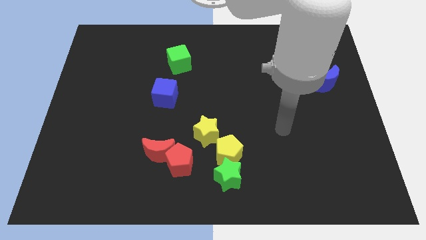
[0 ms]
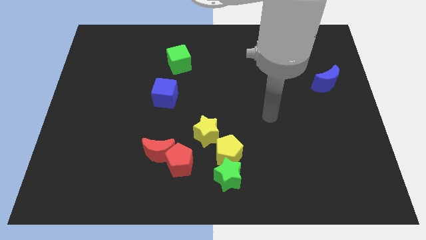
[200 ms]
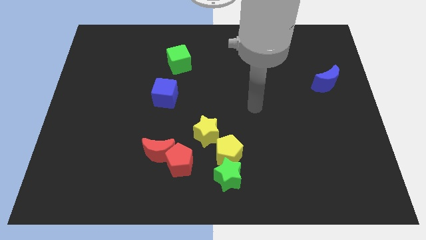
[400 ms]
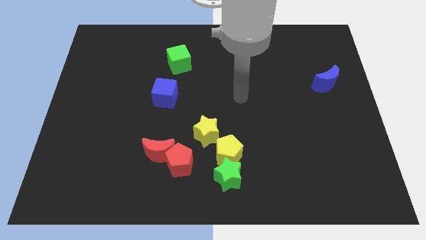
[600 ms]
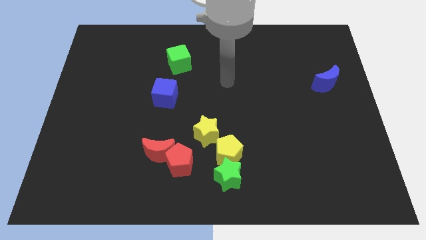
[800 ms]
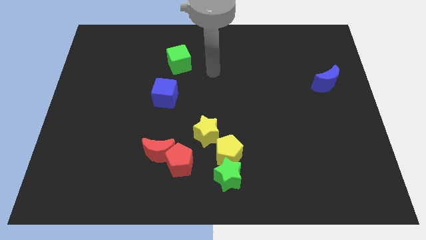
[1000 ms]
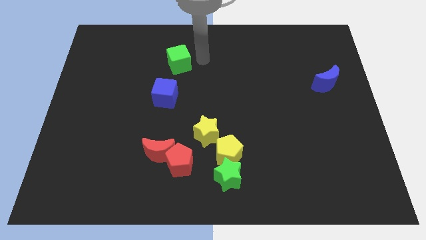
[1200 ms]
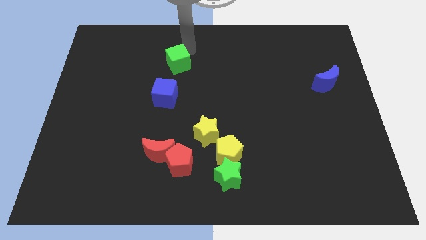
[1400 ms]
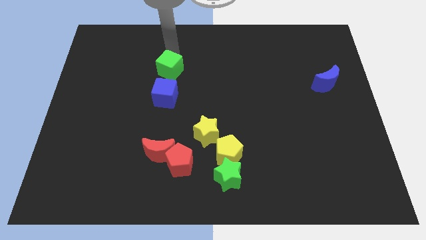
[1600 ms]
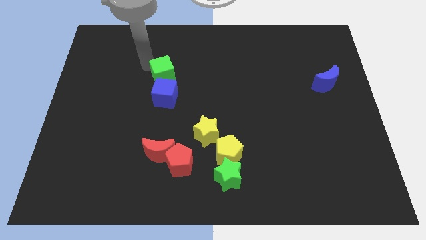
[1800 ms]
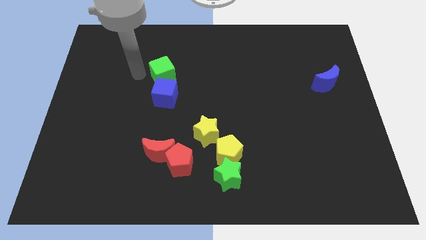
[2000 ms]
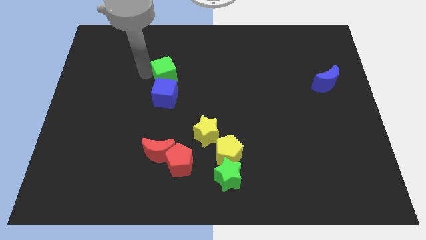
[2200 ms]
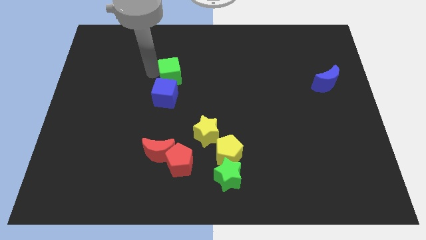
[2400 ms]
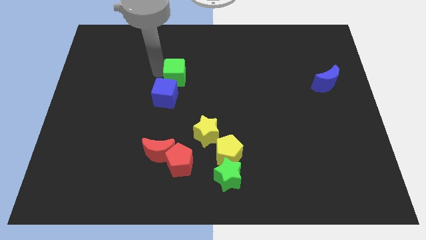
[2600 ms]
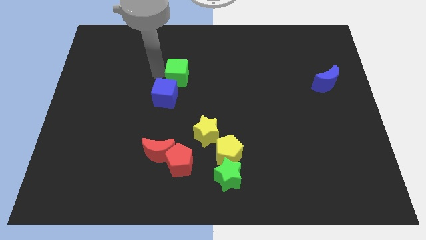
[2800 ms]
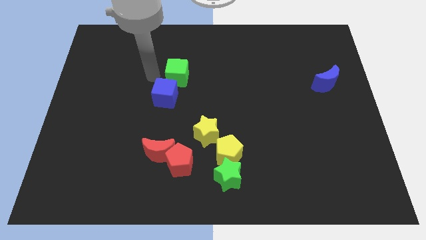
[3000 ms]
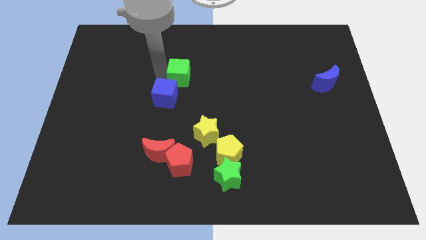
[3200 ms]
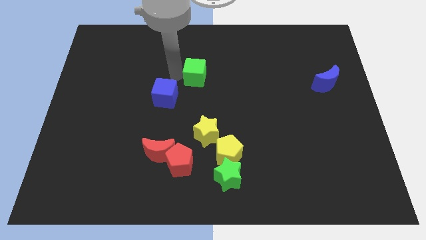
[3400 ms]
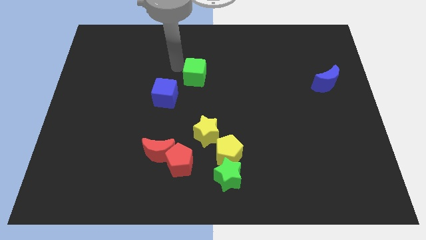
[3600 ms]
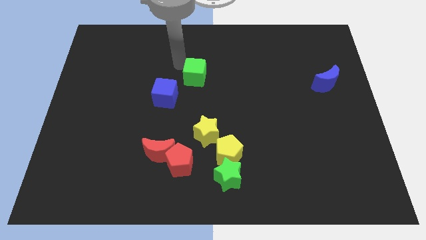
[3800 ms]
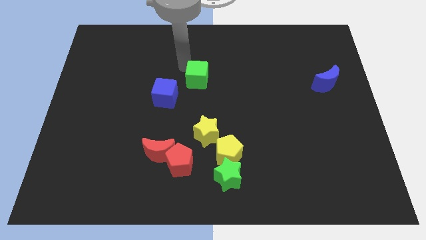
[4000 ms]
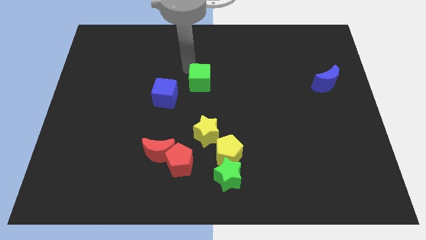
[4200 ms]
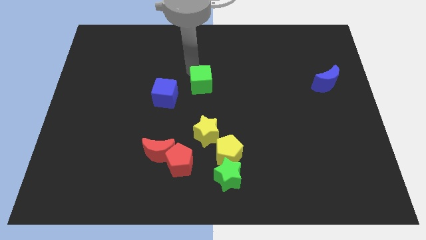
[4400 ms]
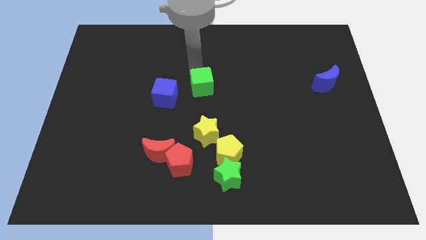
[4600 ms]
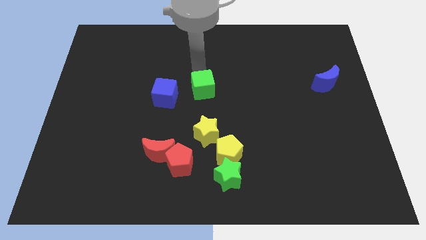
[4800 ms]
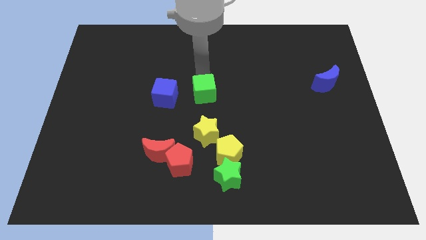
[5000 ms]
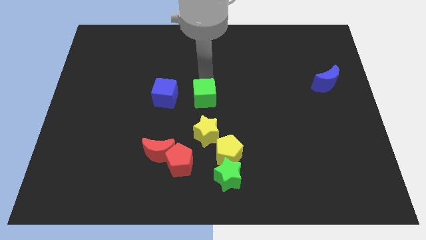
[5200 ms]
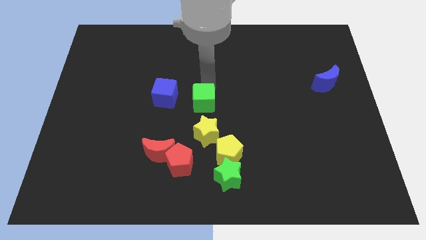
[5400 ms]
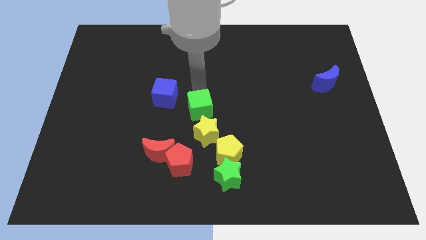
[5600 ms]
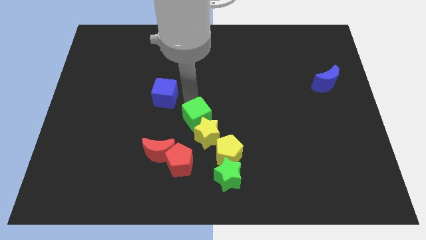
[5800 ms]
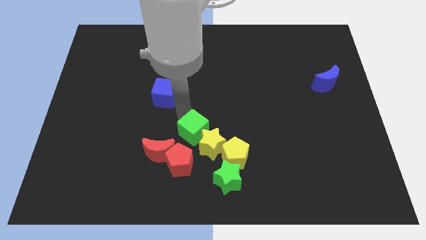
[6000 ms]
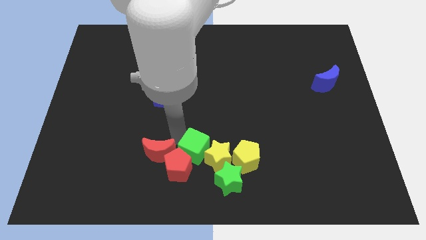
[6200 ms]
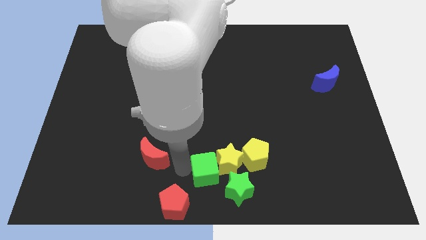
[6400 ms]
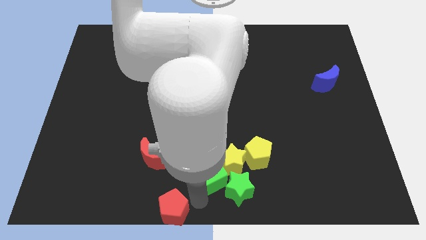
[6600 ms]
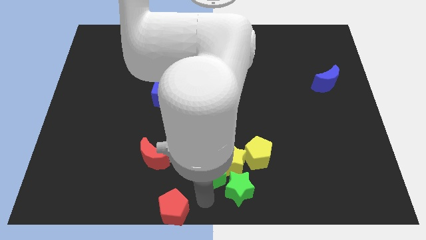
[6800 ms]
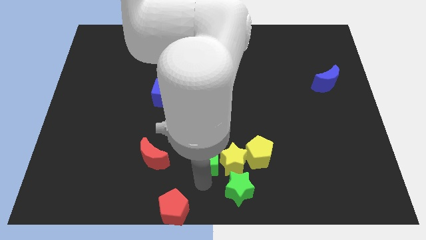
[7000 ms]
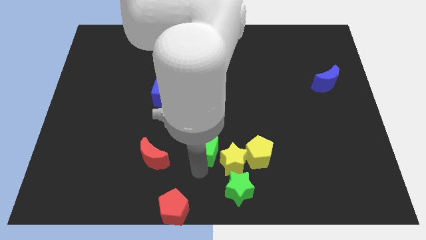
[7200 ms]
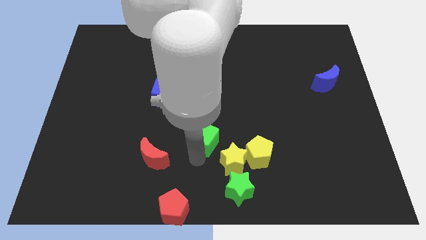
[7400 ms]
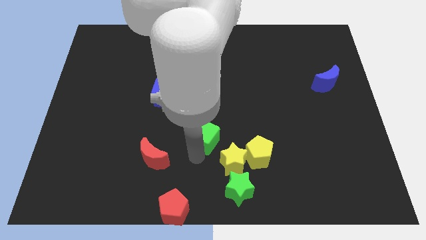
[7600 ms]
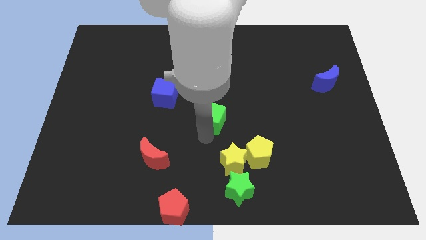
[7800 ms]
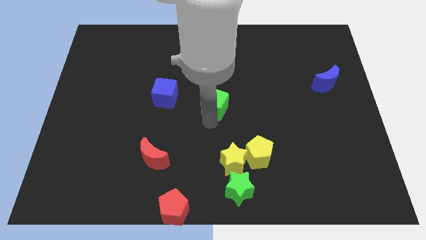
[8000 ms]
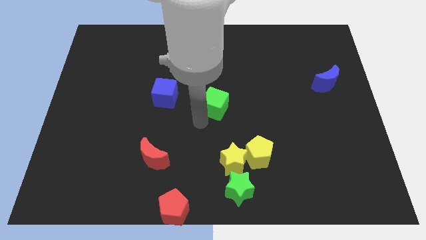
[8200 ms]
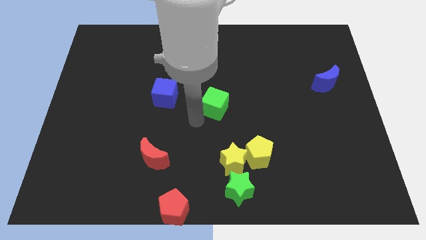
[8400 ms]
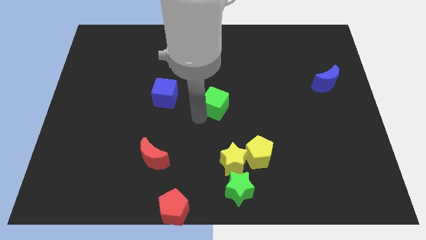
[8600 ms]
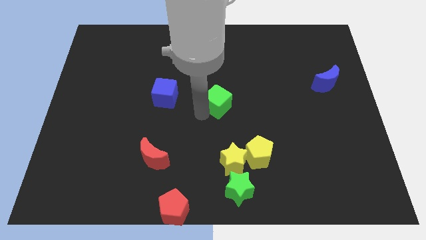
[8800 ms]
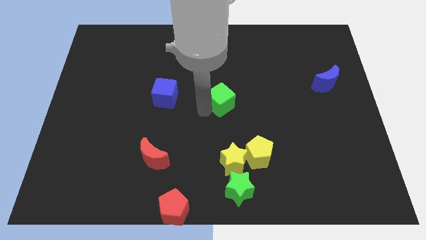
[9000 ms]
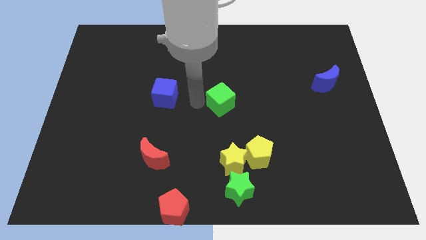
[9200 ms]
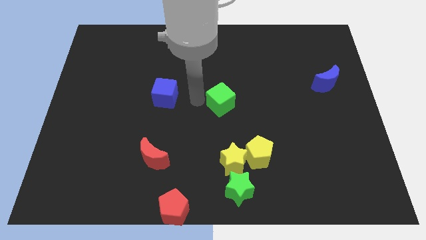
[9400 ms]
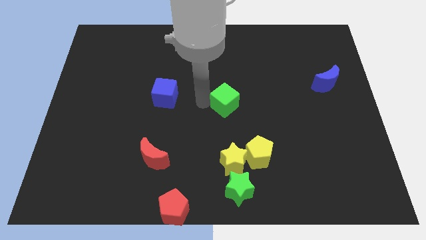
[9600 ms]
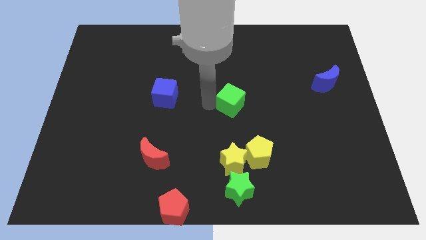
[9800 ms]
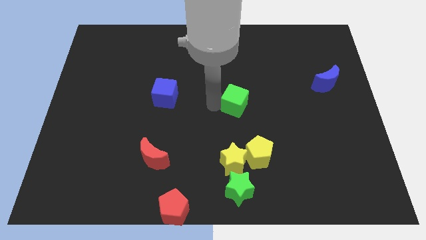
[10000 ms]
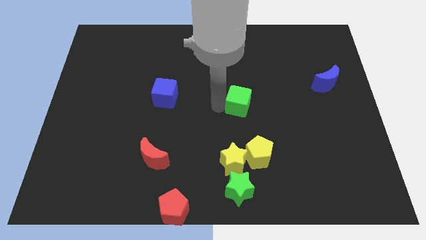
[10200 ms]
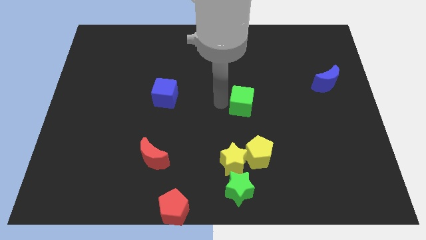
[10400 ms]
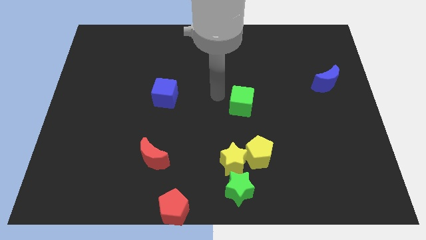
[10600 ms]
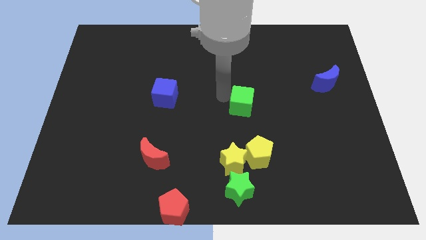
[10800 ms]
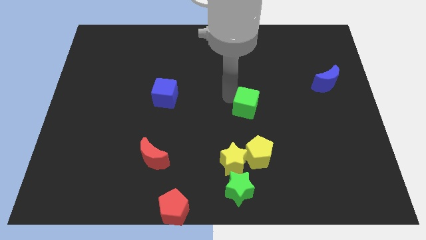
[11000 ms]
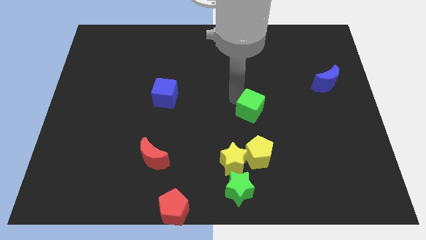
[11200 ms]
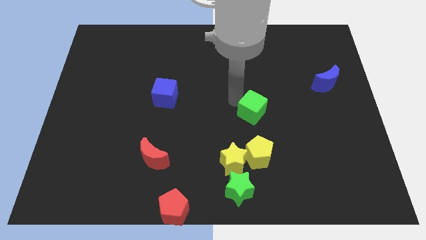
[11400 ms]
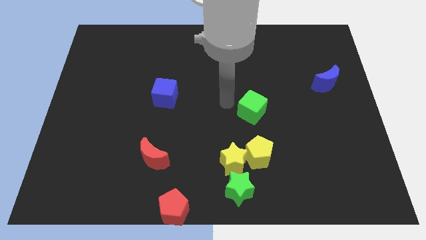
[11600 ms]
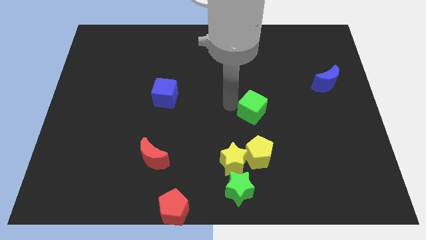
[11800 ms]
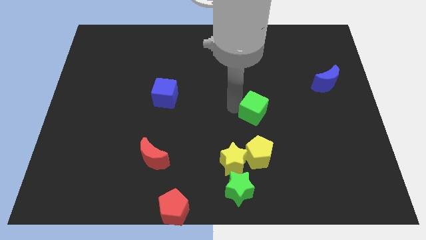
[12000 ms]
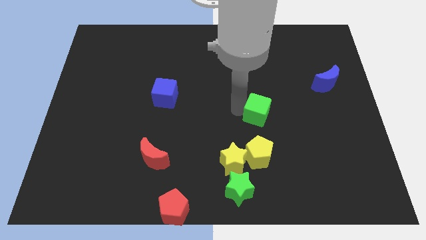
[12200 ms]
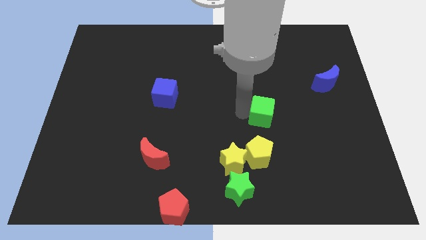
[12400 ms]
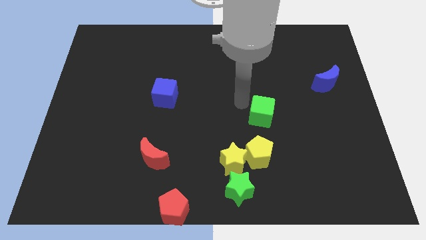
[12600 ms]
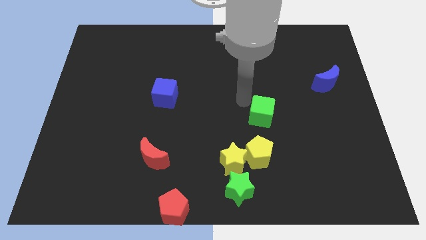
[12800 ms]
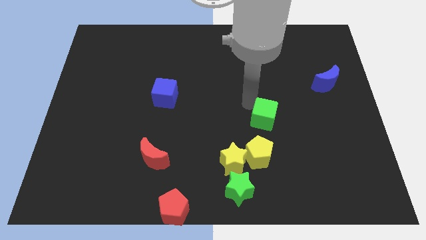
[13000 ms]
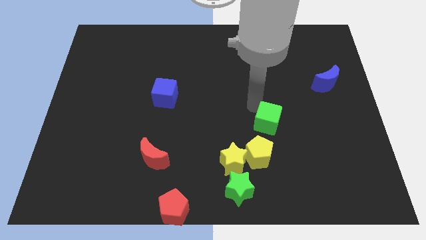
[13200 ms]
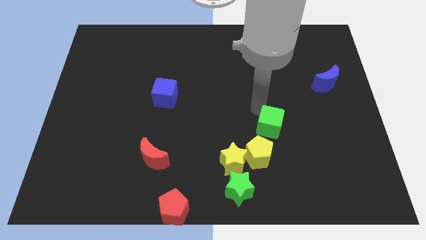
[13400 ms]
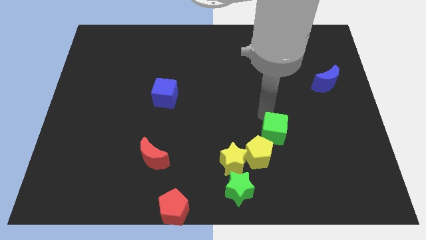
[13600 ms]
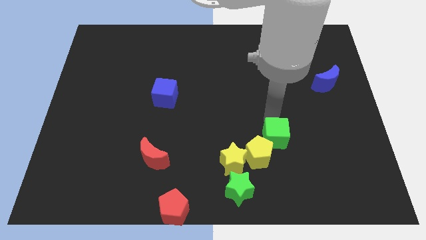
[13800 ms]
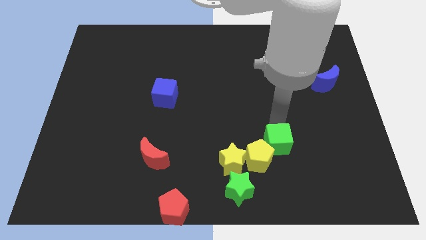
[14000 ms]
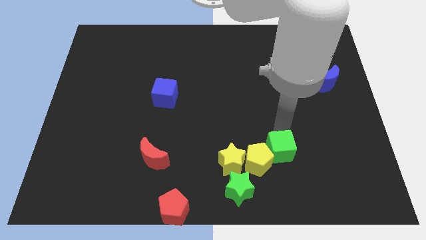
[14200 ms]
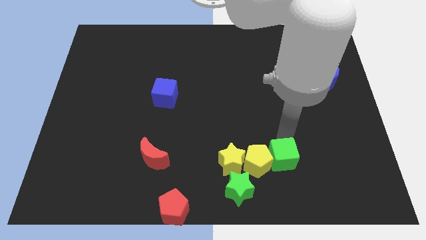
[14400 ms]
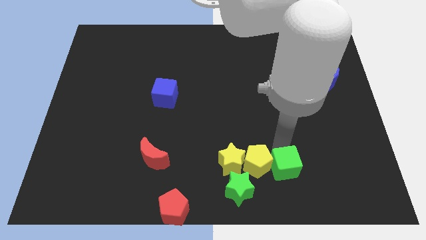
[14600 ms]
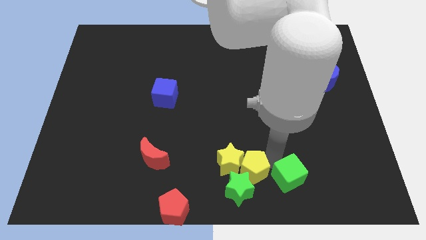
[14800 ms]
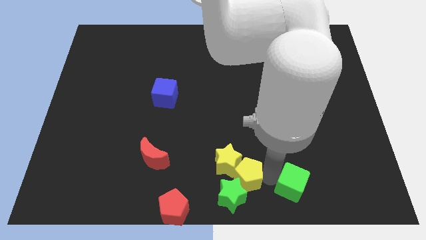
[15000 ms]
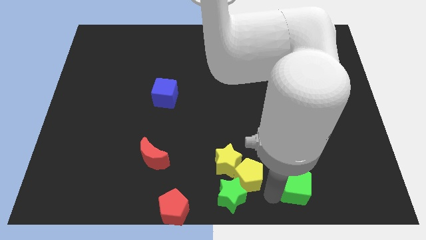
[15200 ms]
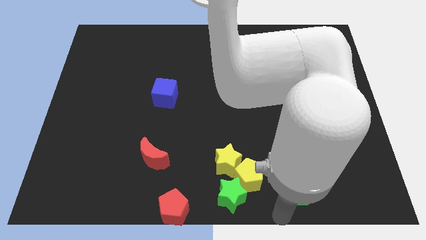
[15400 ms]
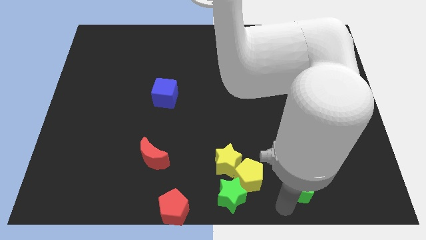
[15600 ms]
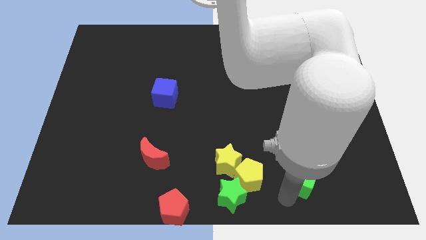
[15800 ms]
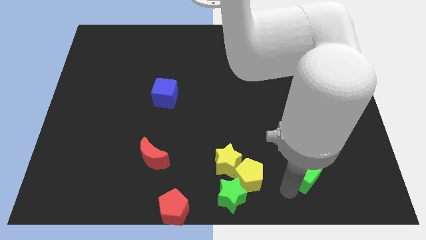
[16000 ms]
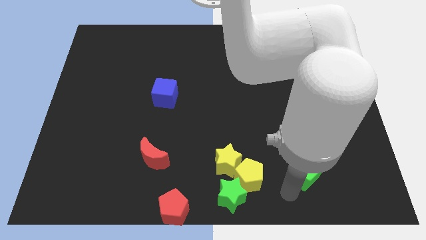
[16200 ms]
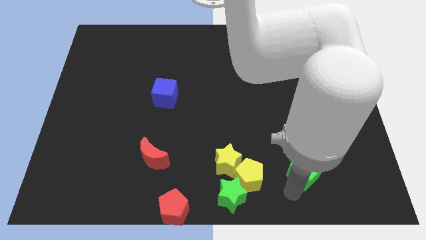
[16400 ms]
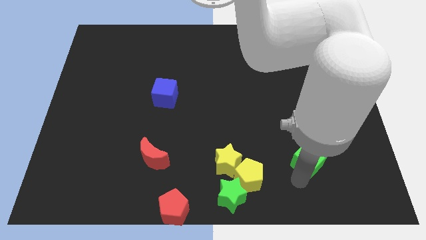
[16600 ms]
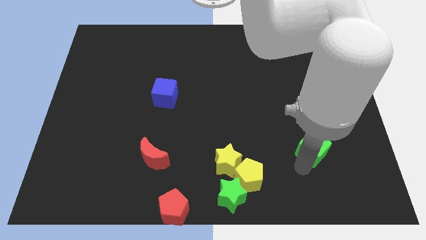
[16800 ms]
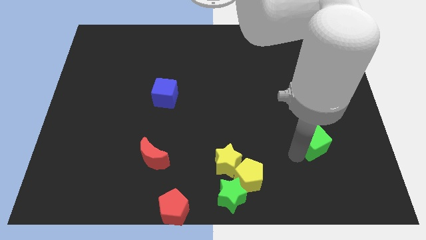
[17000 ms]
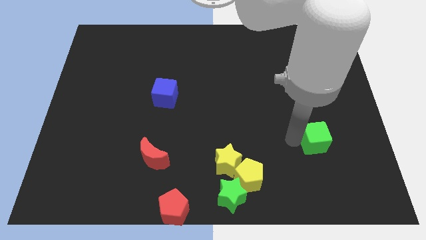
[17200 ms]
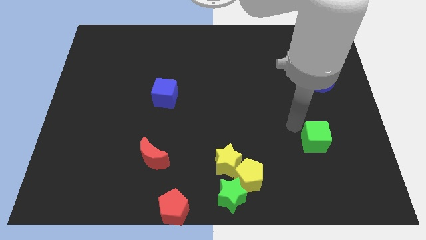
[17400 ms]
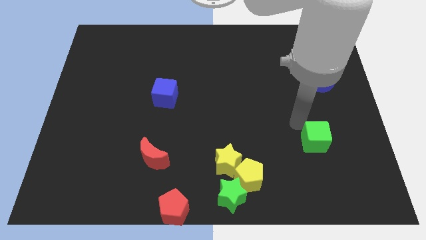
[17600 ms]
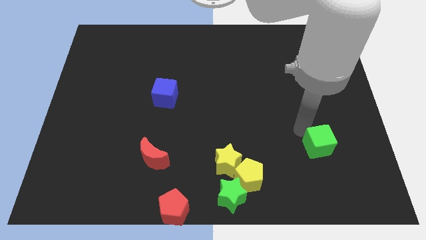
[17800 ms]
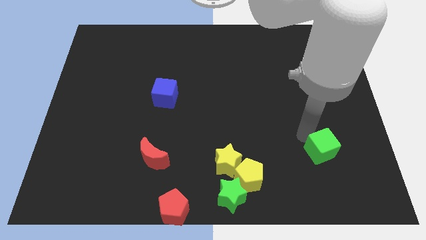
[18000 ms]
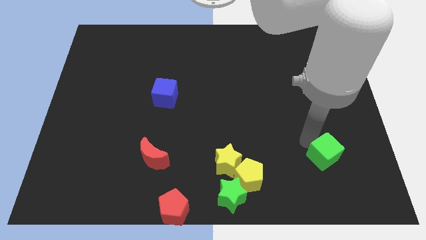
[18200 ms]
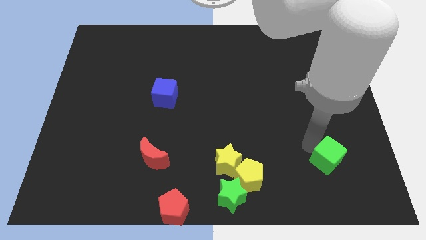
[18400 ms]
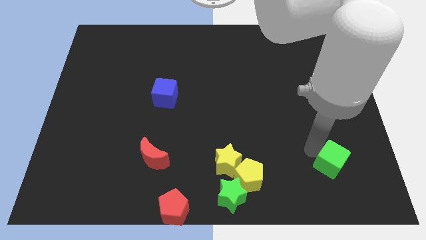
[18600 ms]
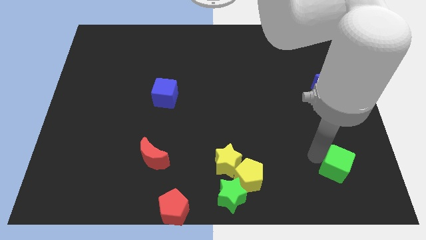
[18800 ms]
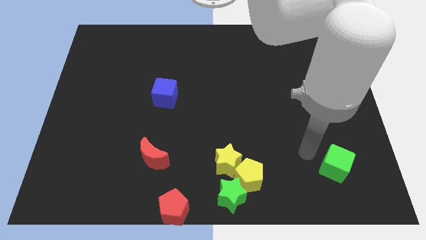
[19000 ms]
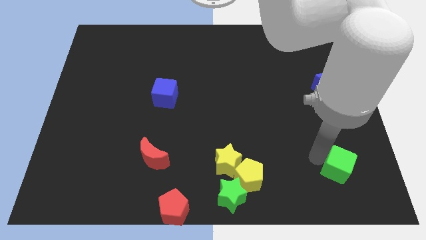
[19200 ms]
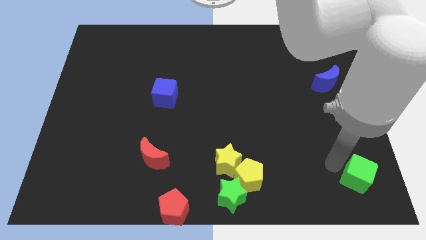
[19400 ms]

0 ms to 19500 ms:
push the green cube to the lower right corner
